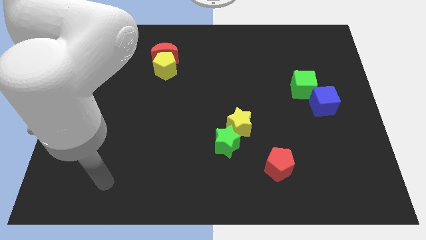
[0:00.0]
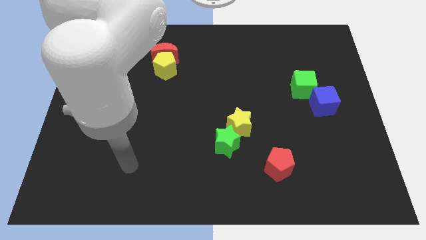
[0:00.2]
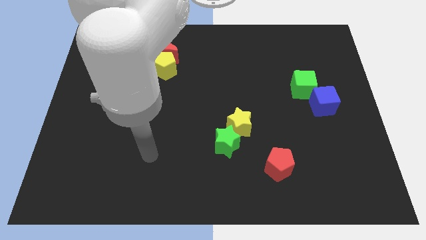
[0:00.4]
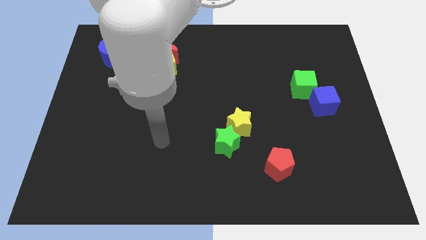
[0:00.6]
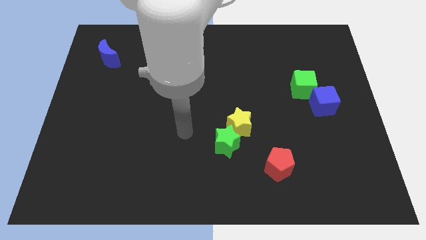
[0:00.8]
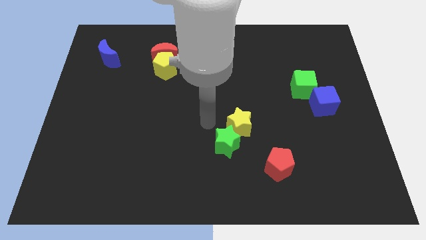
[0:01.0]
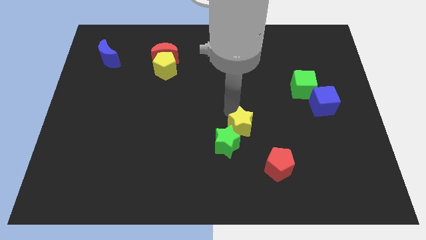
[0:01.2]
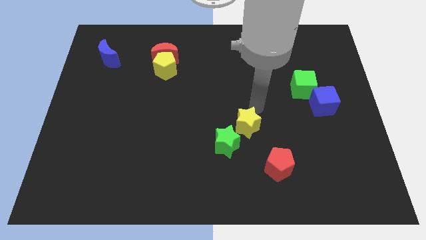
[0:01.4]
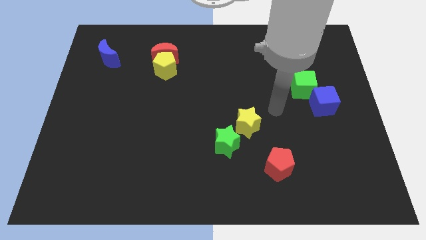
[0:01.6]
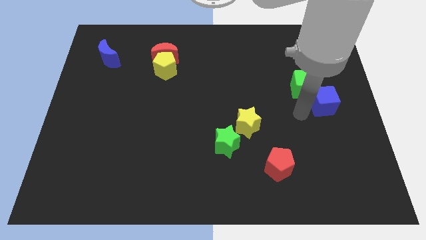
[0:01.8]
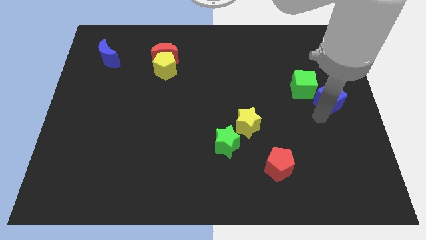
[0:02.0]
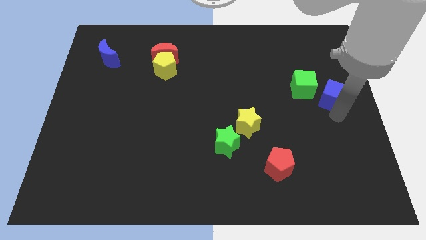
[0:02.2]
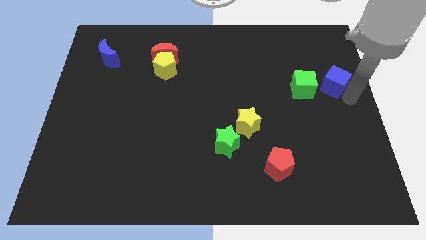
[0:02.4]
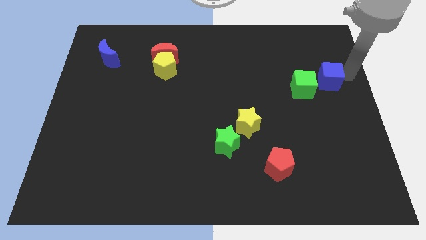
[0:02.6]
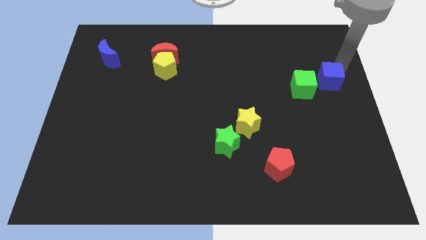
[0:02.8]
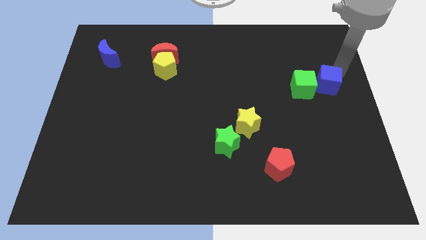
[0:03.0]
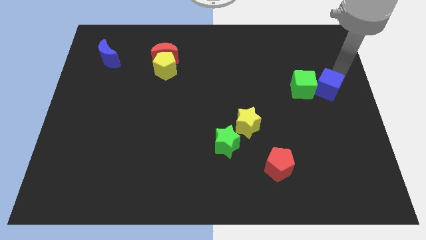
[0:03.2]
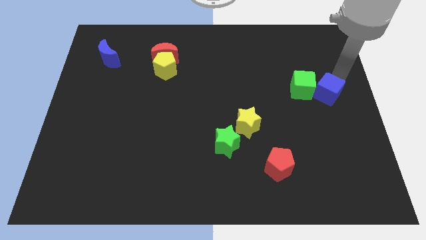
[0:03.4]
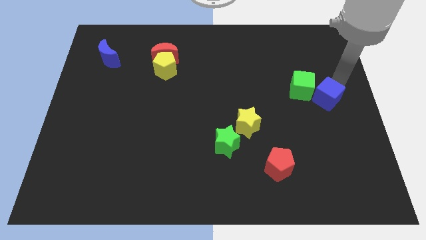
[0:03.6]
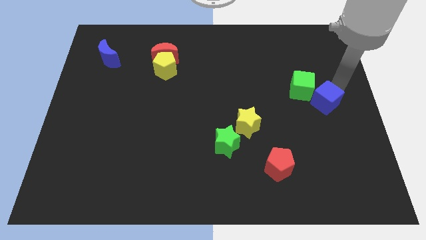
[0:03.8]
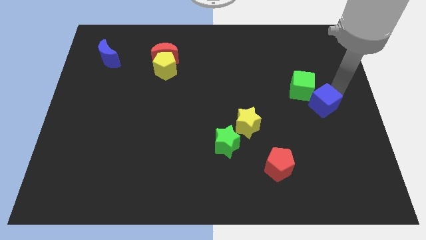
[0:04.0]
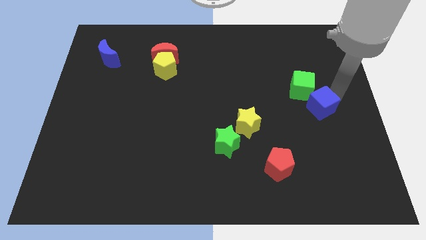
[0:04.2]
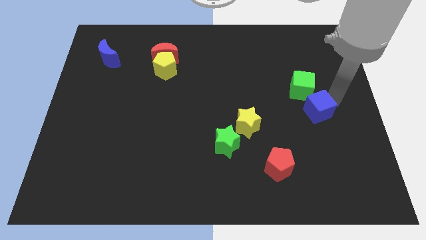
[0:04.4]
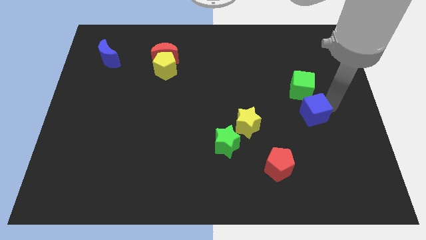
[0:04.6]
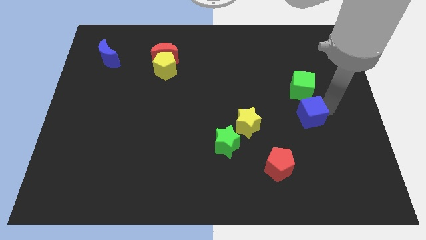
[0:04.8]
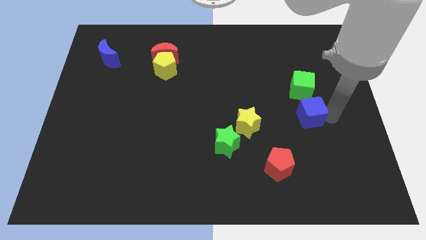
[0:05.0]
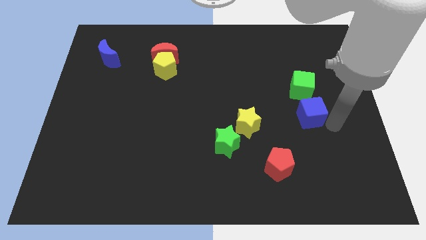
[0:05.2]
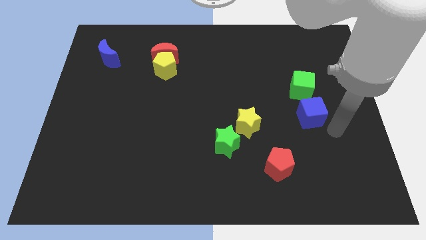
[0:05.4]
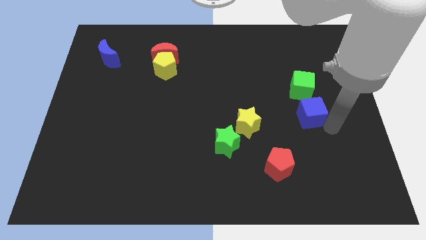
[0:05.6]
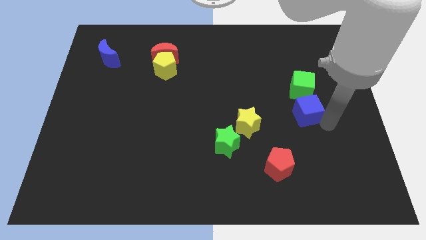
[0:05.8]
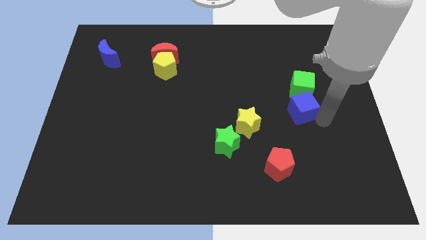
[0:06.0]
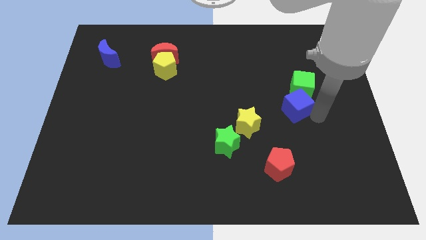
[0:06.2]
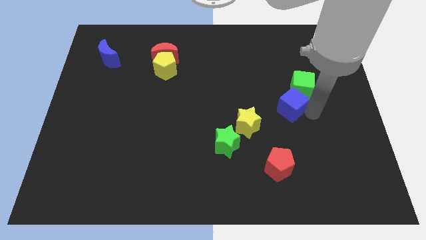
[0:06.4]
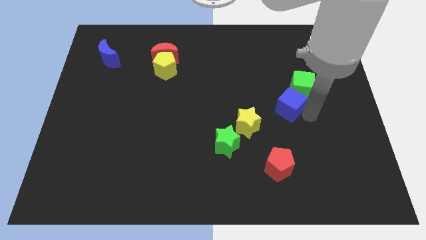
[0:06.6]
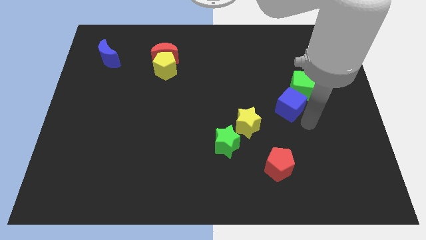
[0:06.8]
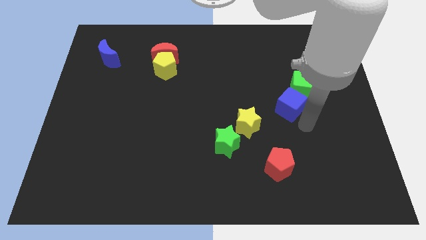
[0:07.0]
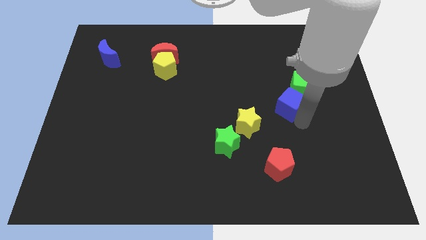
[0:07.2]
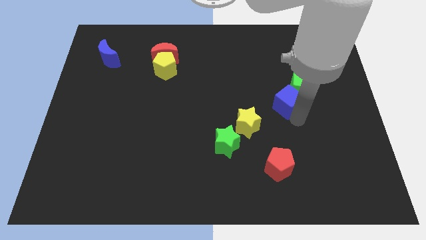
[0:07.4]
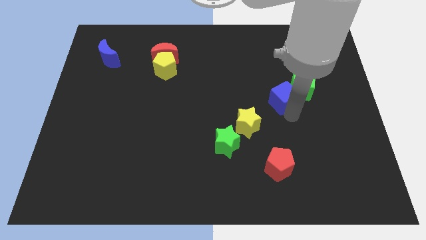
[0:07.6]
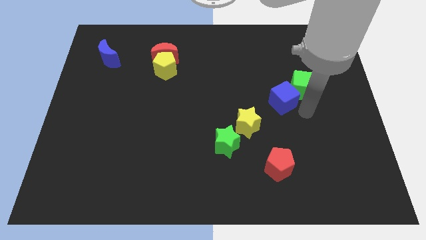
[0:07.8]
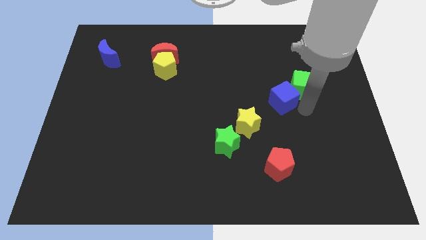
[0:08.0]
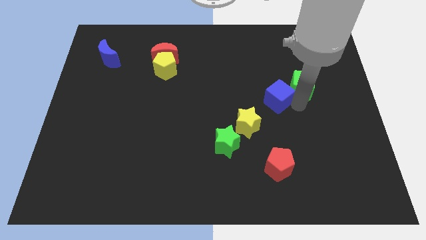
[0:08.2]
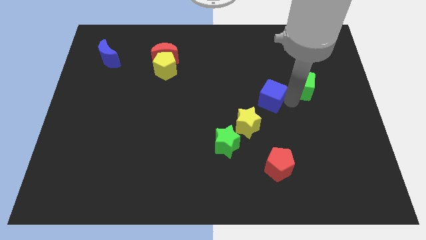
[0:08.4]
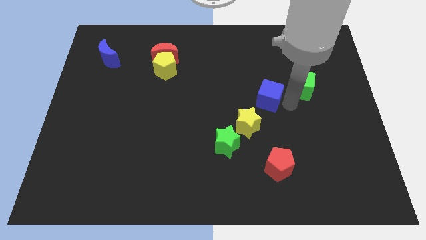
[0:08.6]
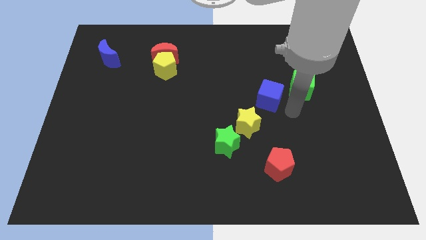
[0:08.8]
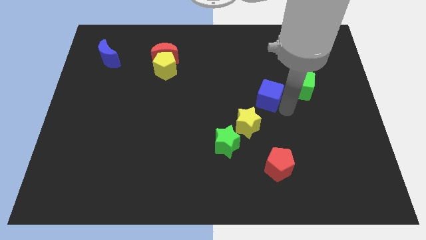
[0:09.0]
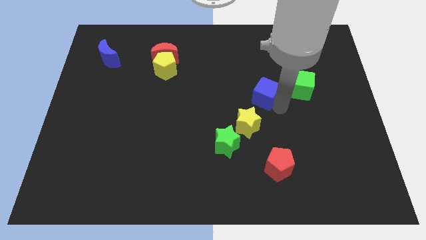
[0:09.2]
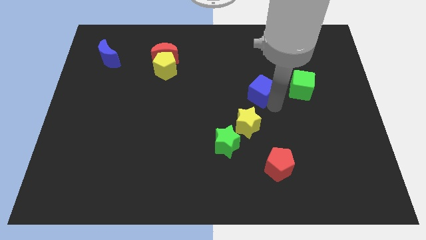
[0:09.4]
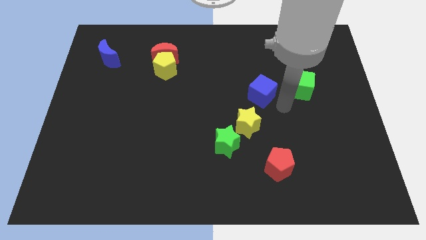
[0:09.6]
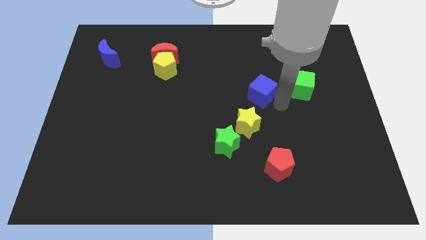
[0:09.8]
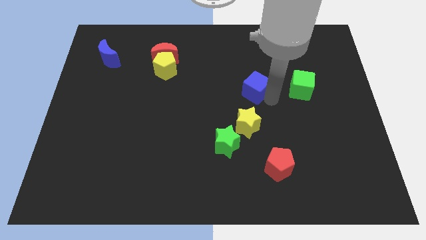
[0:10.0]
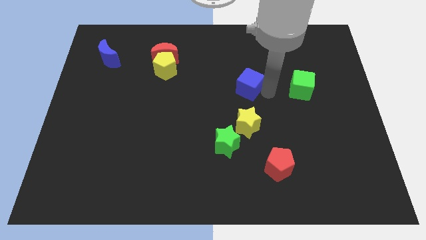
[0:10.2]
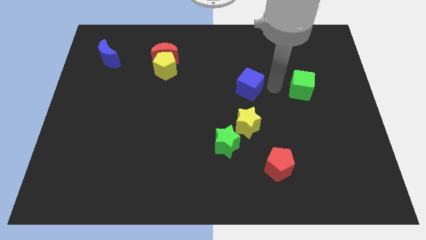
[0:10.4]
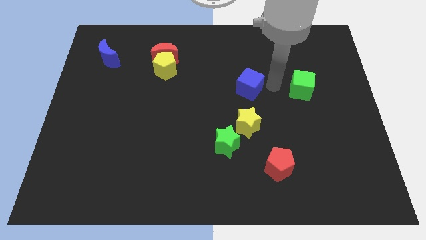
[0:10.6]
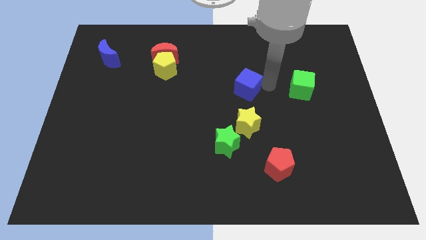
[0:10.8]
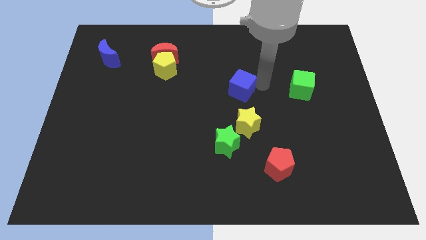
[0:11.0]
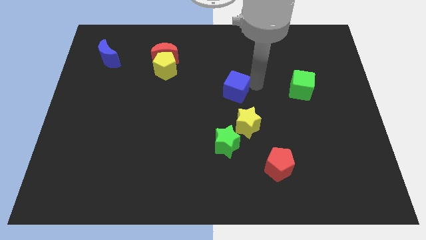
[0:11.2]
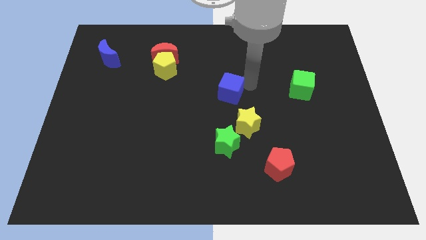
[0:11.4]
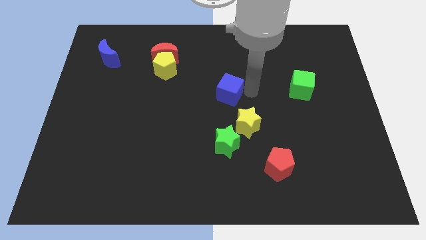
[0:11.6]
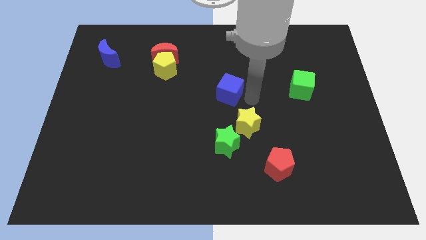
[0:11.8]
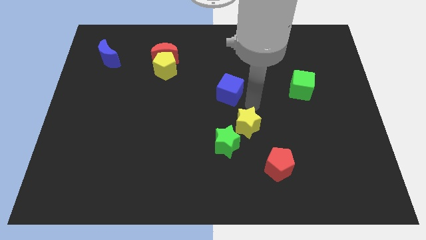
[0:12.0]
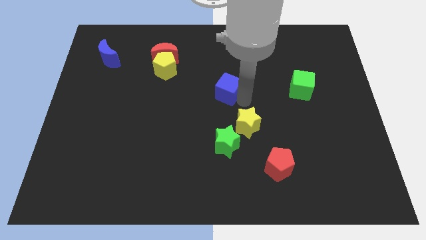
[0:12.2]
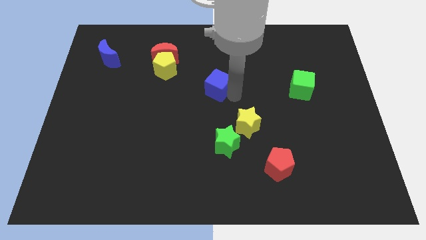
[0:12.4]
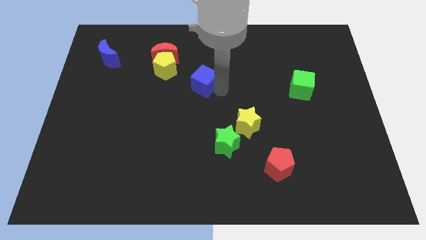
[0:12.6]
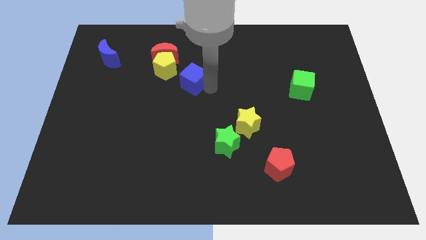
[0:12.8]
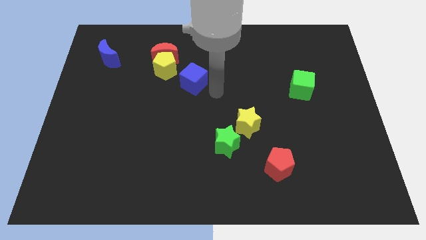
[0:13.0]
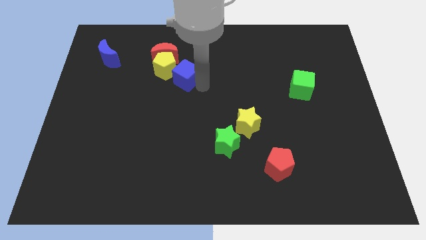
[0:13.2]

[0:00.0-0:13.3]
move the blue cube towards the yellow pentagon
